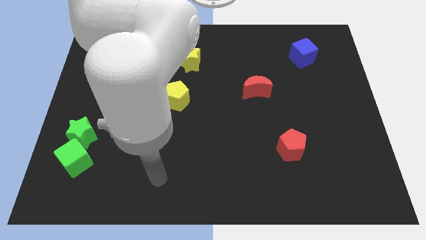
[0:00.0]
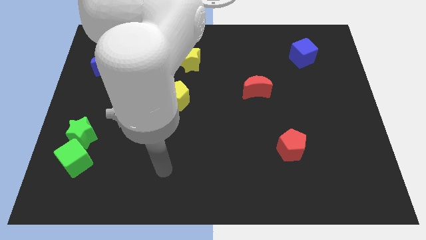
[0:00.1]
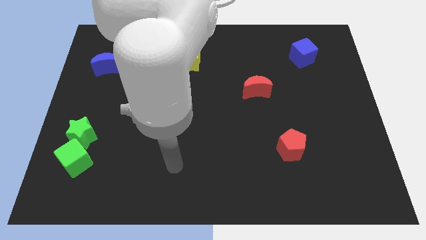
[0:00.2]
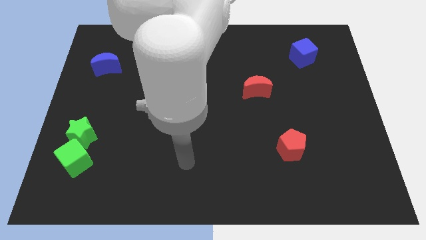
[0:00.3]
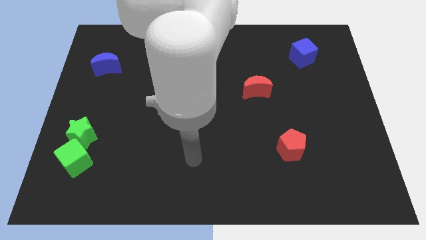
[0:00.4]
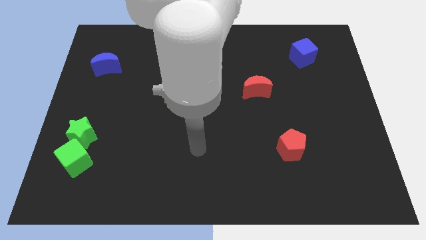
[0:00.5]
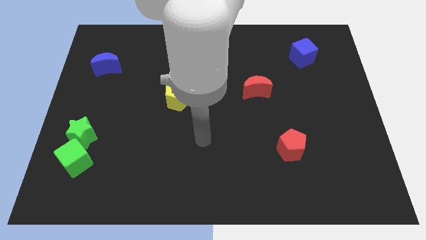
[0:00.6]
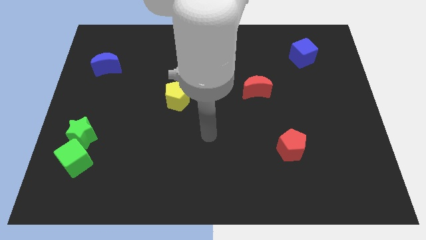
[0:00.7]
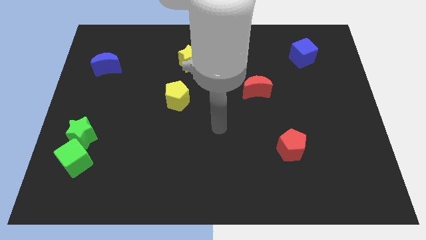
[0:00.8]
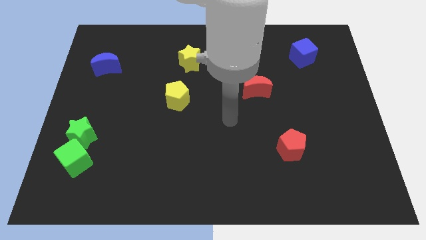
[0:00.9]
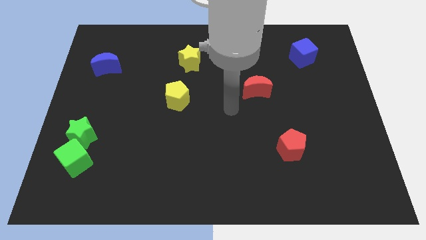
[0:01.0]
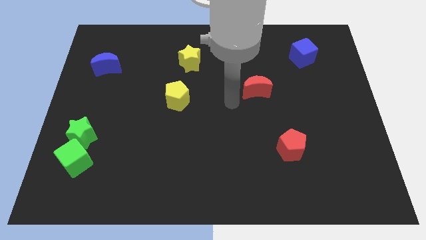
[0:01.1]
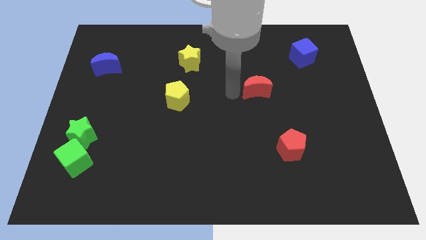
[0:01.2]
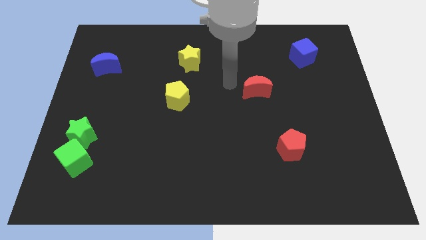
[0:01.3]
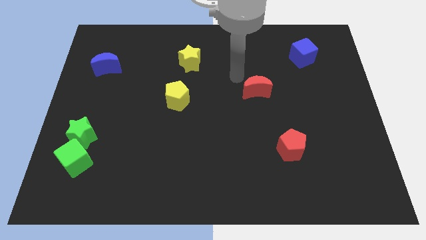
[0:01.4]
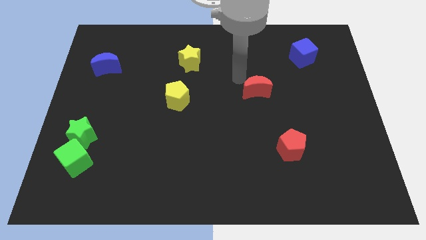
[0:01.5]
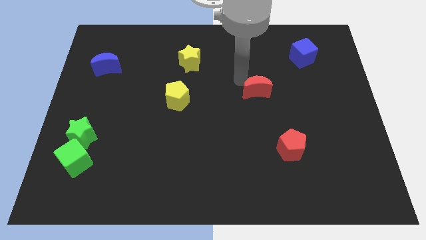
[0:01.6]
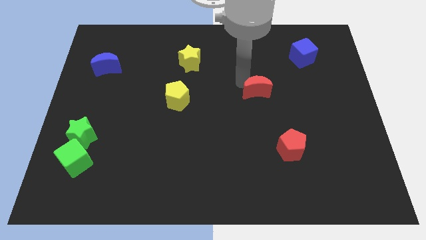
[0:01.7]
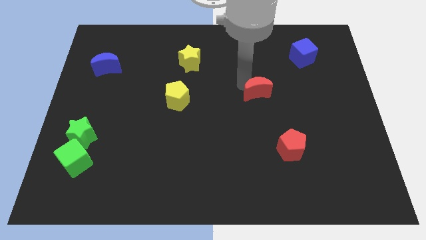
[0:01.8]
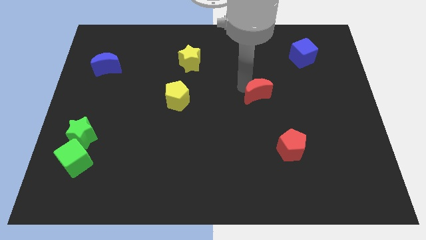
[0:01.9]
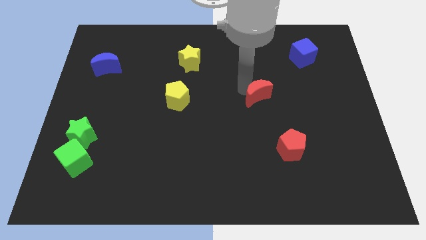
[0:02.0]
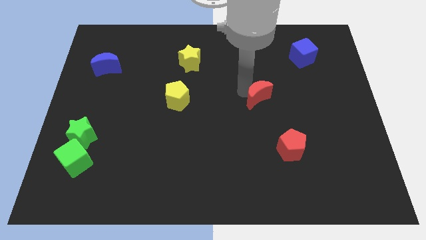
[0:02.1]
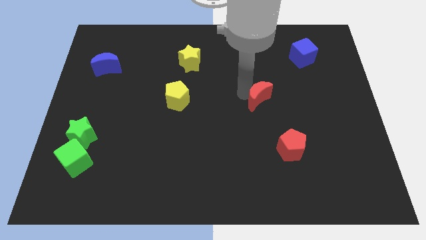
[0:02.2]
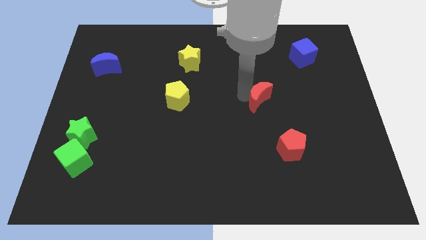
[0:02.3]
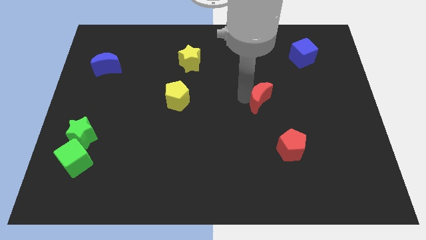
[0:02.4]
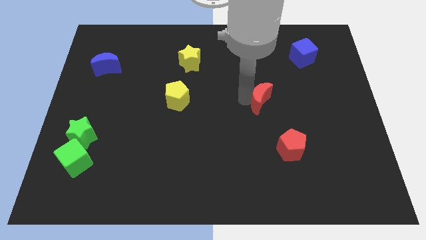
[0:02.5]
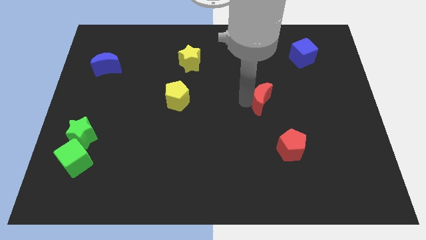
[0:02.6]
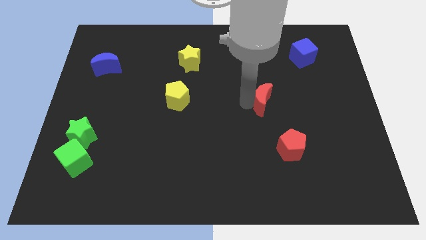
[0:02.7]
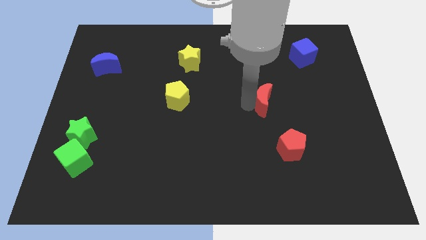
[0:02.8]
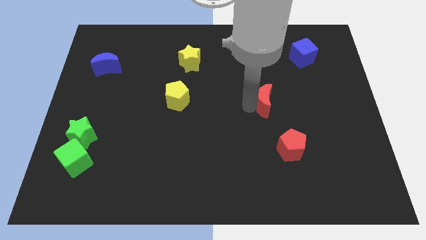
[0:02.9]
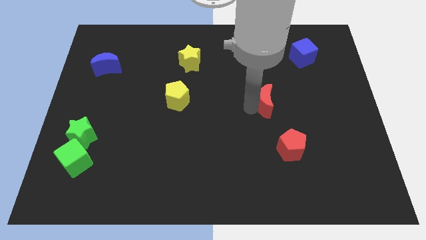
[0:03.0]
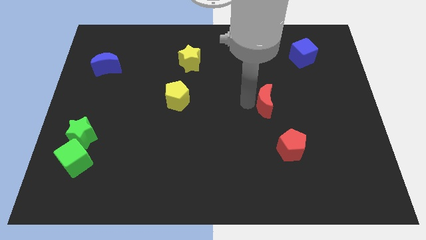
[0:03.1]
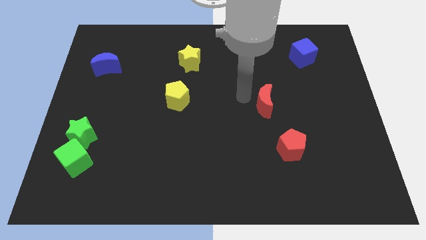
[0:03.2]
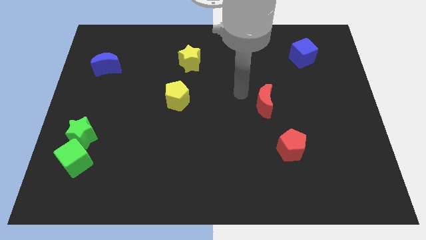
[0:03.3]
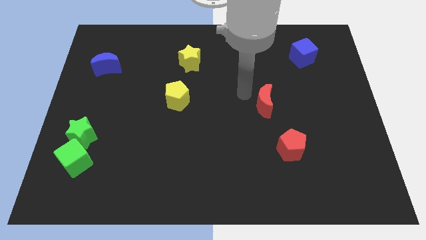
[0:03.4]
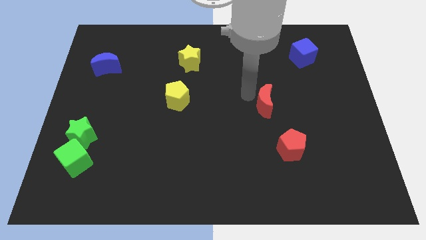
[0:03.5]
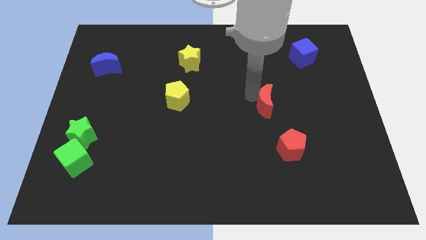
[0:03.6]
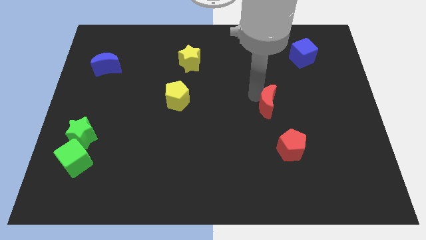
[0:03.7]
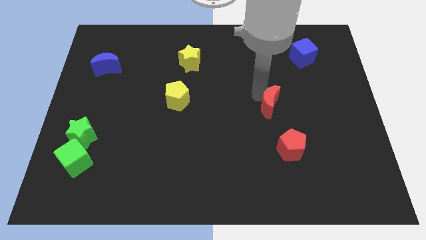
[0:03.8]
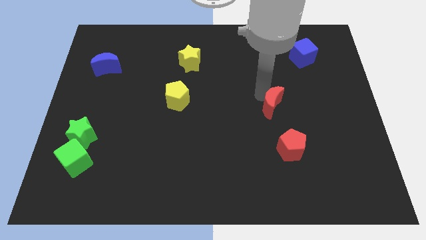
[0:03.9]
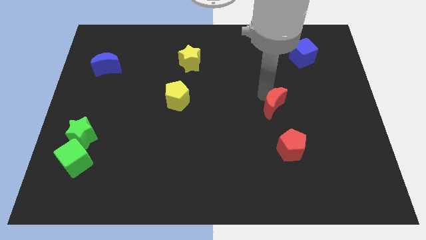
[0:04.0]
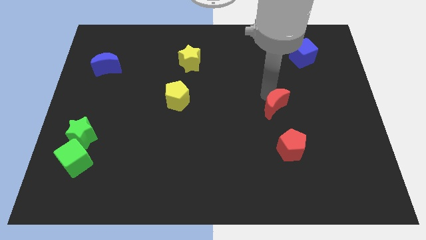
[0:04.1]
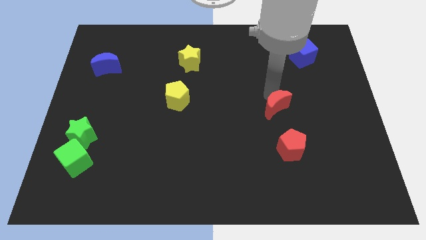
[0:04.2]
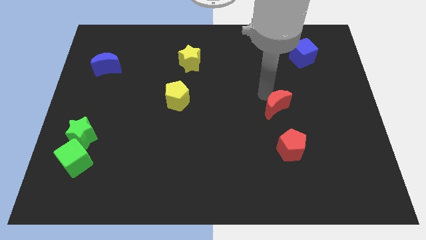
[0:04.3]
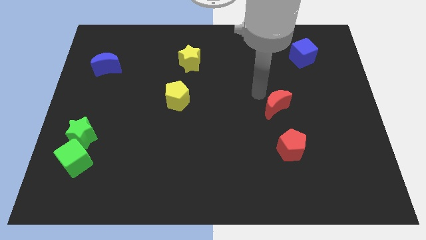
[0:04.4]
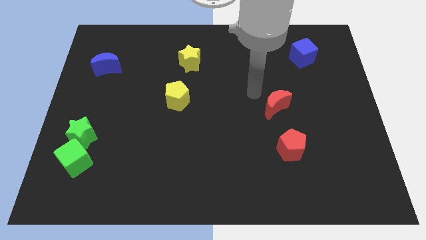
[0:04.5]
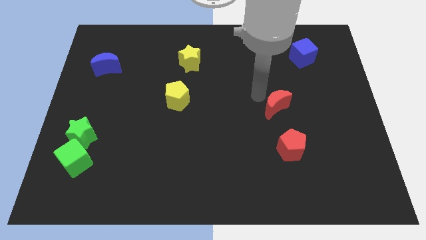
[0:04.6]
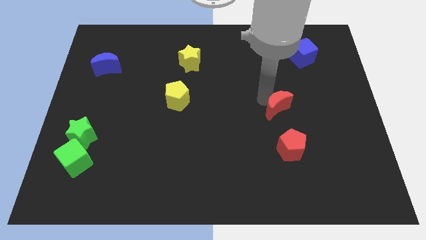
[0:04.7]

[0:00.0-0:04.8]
slightly slide the red moon diagonally downwards and to the right

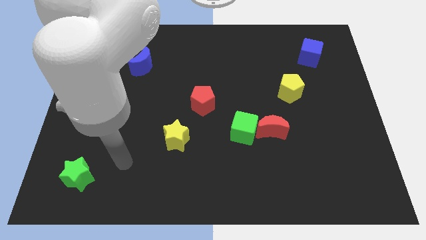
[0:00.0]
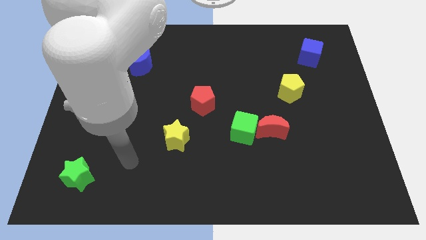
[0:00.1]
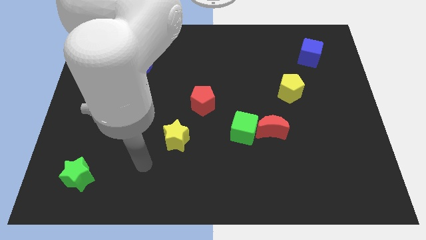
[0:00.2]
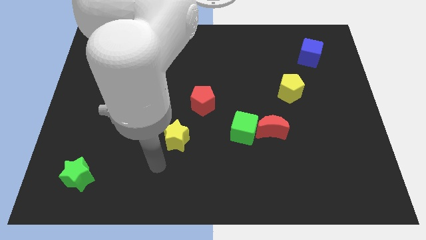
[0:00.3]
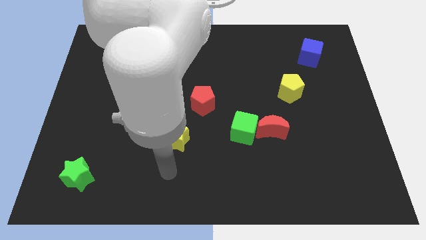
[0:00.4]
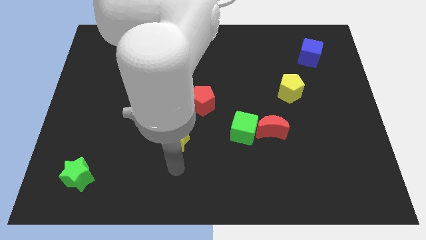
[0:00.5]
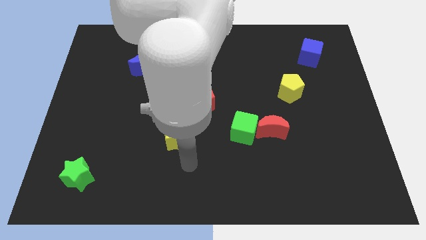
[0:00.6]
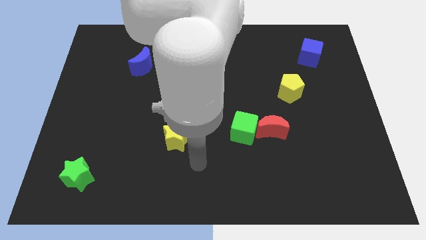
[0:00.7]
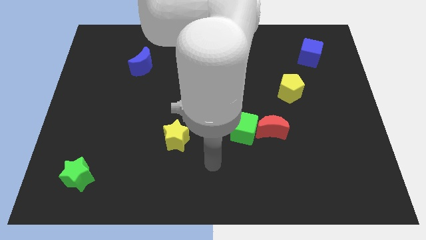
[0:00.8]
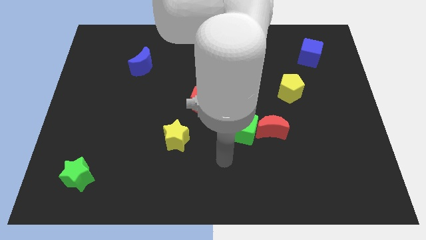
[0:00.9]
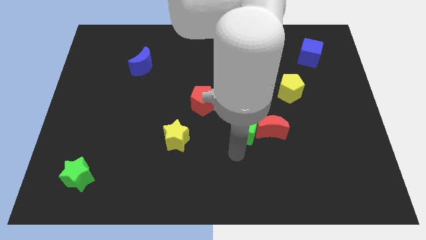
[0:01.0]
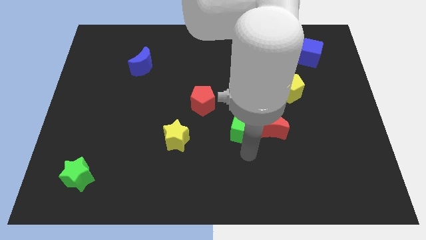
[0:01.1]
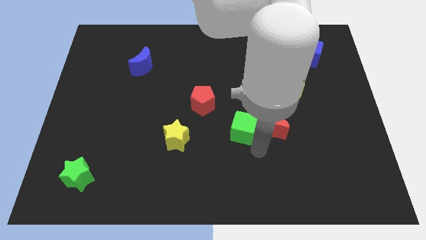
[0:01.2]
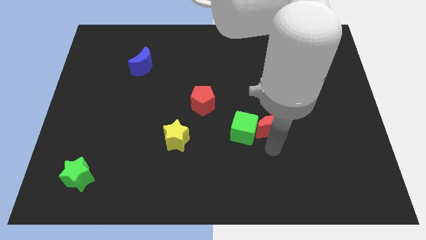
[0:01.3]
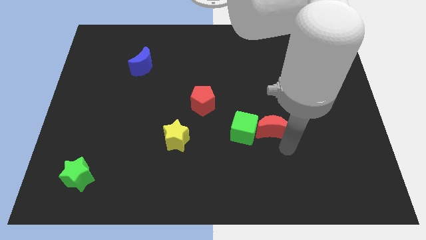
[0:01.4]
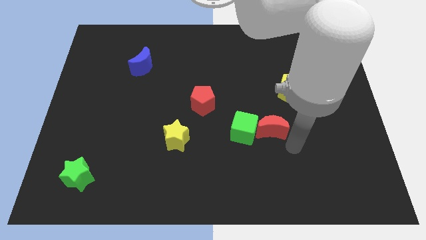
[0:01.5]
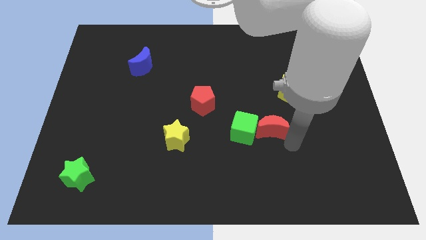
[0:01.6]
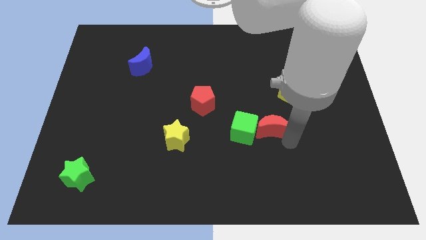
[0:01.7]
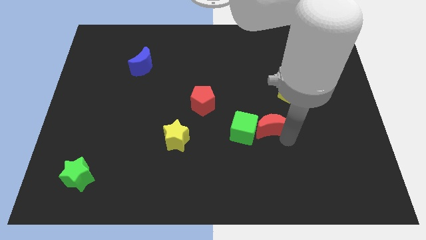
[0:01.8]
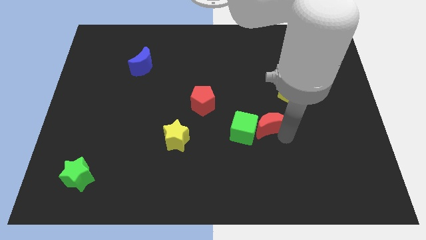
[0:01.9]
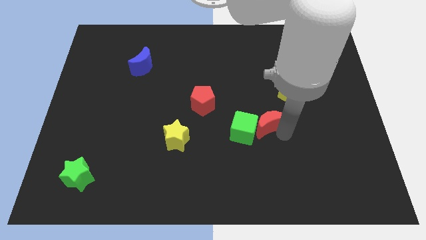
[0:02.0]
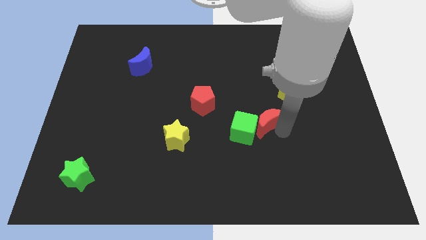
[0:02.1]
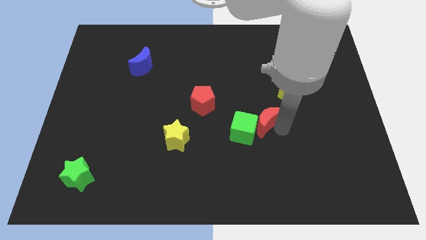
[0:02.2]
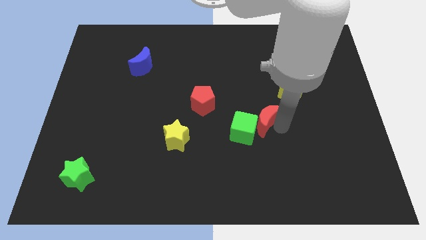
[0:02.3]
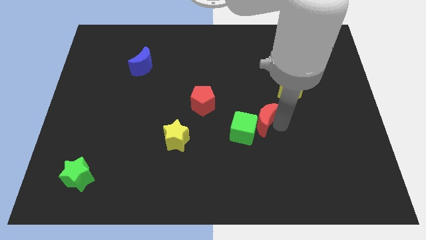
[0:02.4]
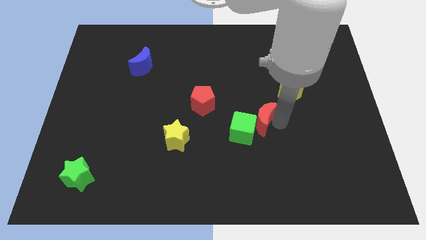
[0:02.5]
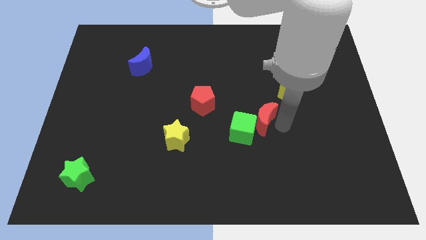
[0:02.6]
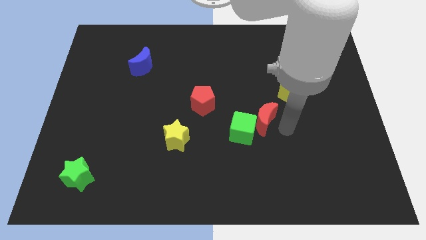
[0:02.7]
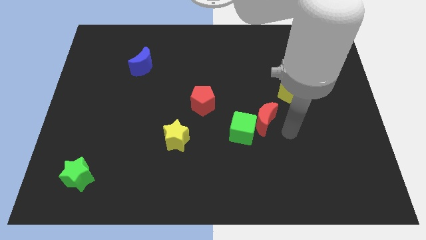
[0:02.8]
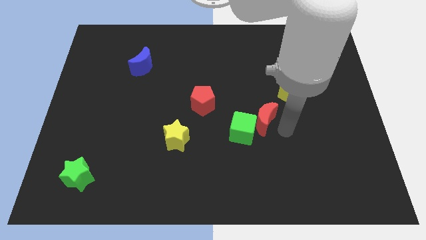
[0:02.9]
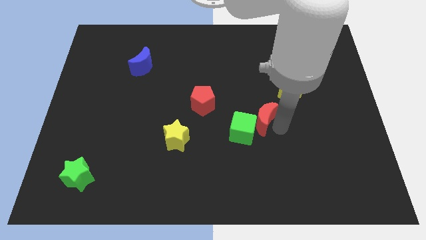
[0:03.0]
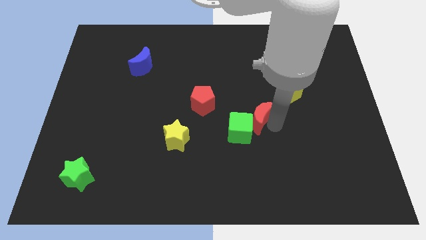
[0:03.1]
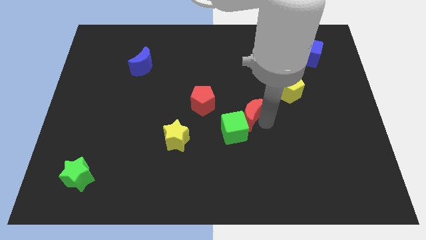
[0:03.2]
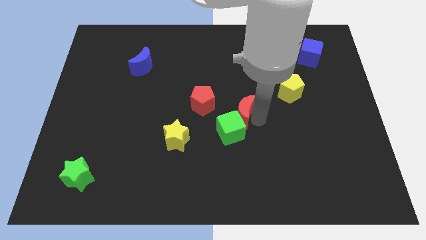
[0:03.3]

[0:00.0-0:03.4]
slide the red moon up and left diagonally a bit
